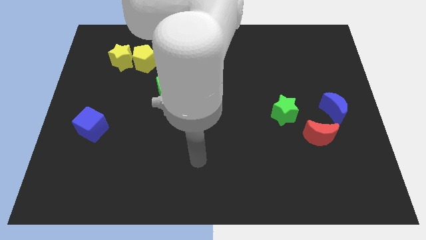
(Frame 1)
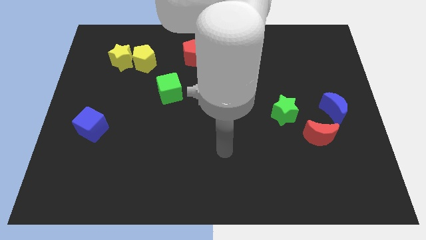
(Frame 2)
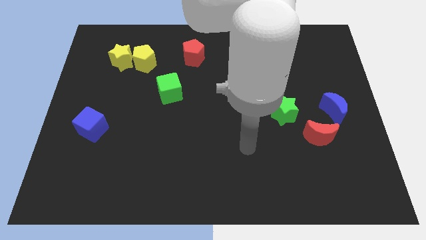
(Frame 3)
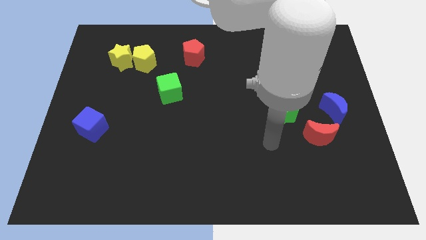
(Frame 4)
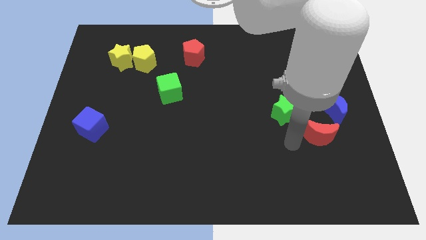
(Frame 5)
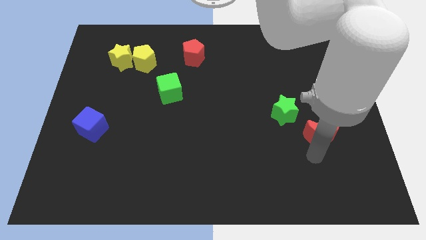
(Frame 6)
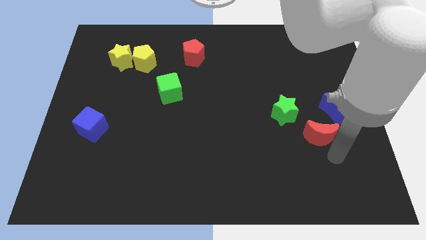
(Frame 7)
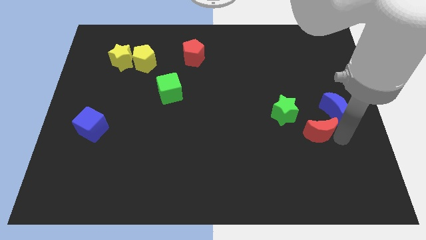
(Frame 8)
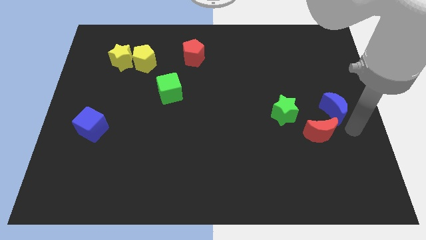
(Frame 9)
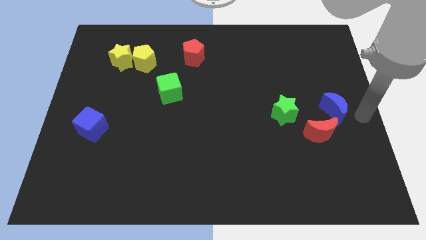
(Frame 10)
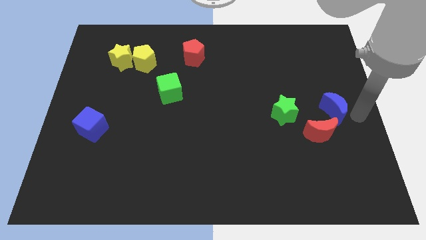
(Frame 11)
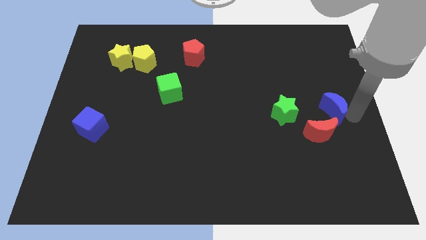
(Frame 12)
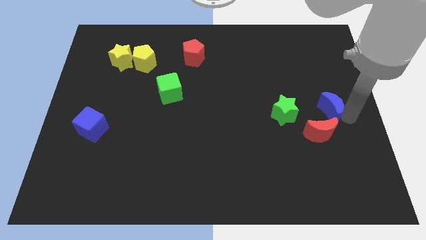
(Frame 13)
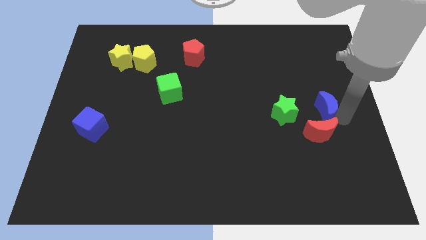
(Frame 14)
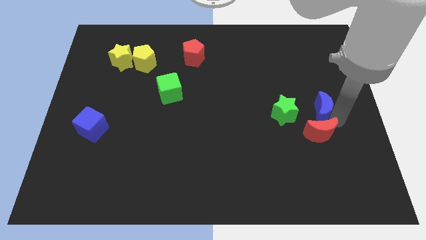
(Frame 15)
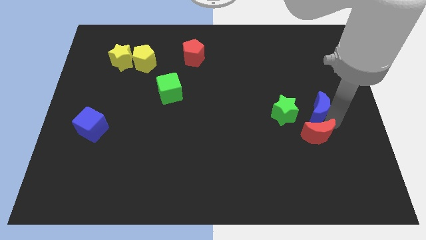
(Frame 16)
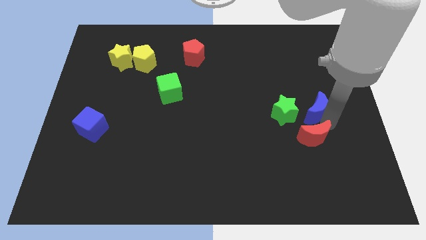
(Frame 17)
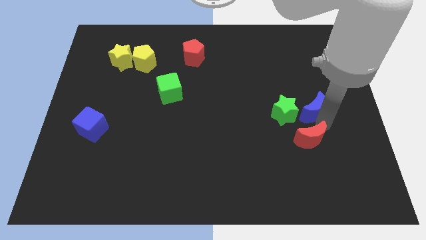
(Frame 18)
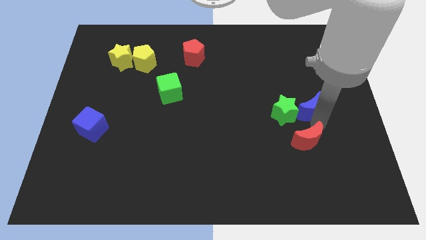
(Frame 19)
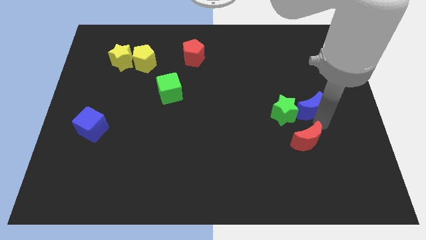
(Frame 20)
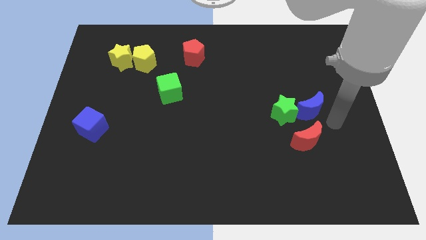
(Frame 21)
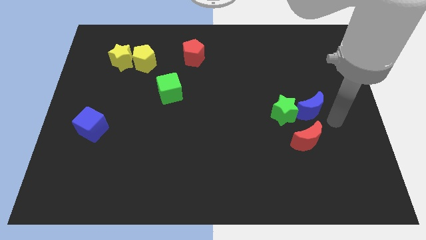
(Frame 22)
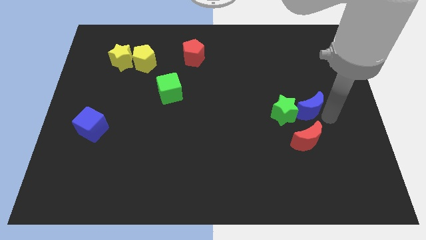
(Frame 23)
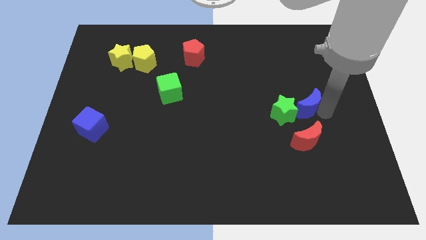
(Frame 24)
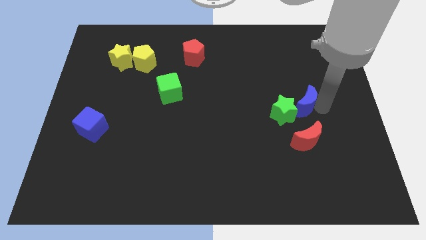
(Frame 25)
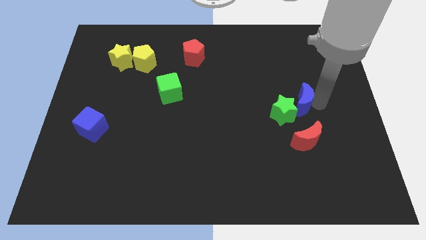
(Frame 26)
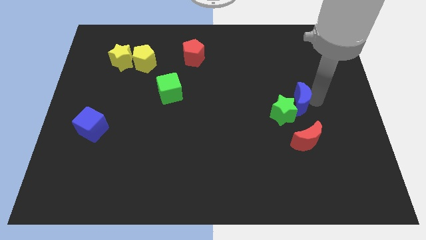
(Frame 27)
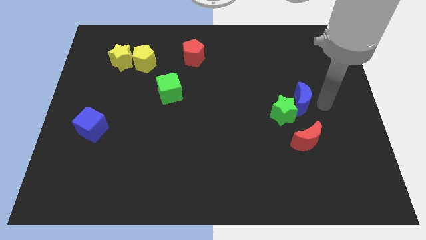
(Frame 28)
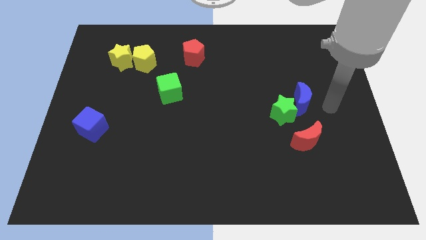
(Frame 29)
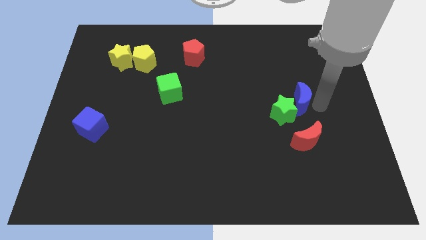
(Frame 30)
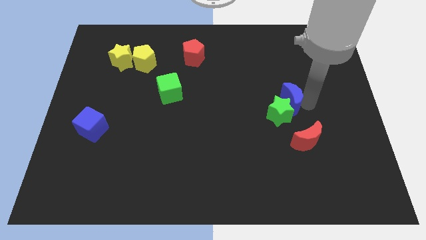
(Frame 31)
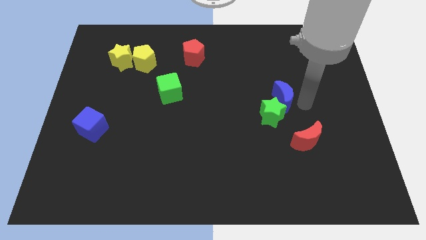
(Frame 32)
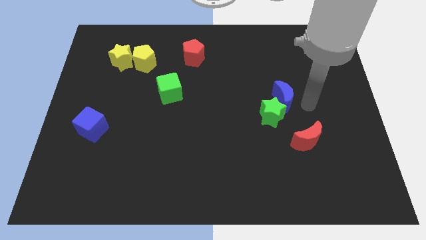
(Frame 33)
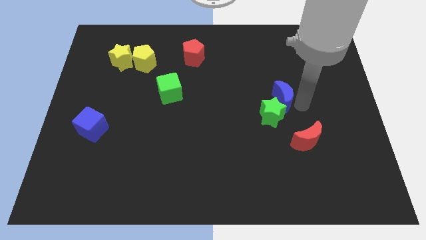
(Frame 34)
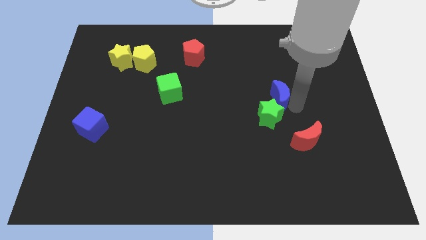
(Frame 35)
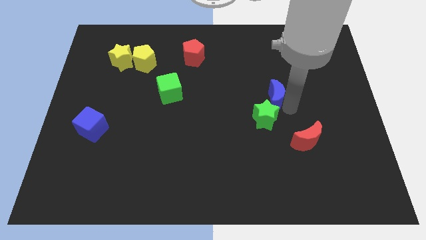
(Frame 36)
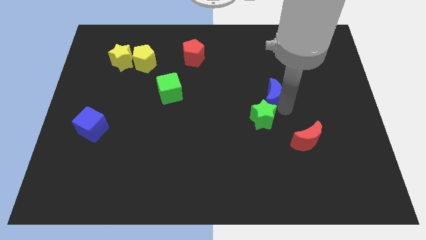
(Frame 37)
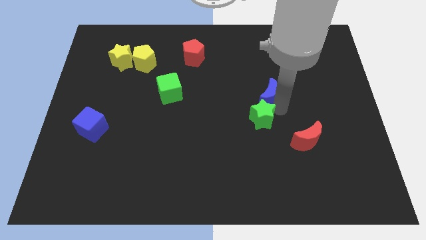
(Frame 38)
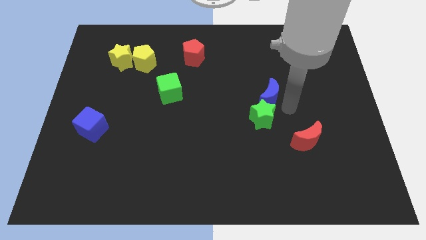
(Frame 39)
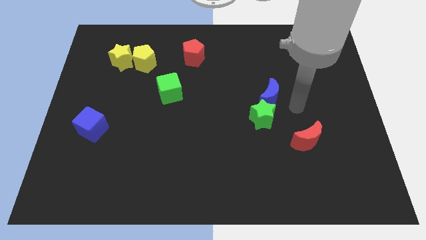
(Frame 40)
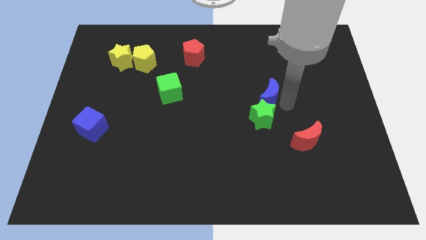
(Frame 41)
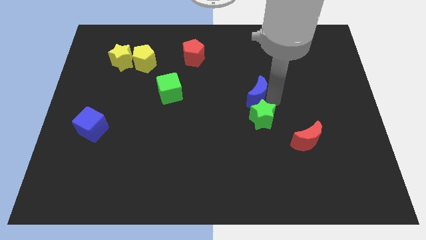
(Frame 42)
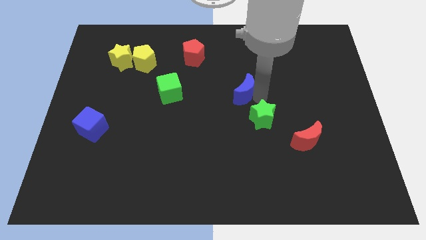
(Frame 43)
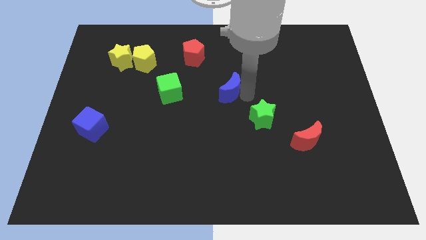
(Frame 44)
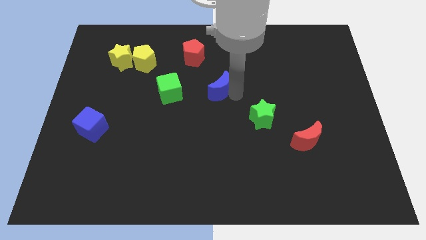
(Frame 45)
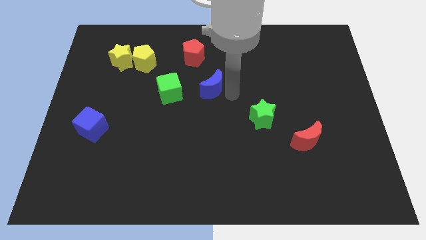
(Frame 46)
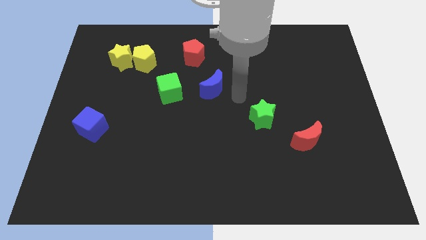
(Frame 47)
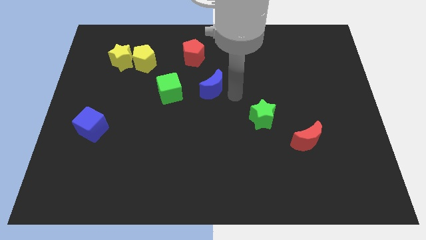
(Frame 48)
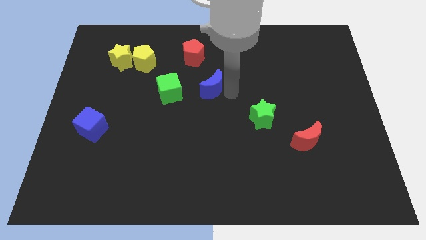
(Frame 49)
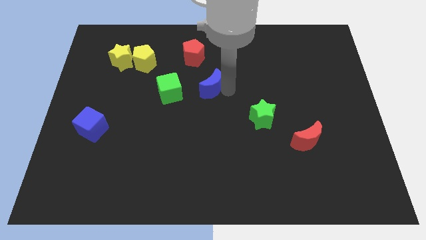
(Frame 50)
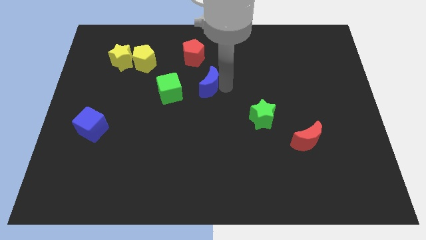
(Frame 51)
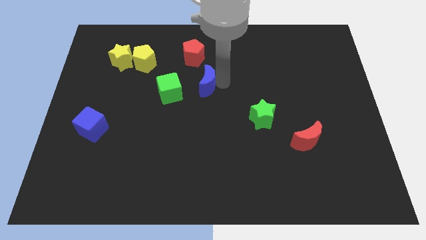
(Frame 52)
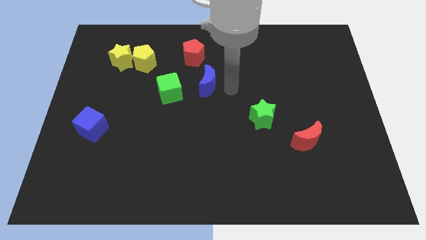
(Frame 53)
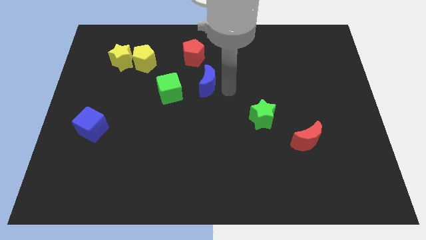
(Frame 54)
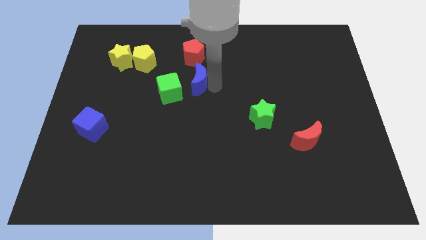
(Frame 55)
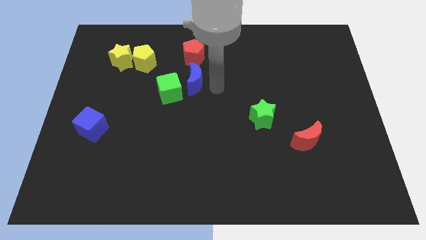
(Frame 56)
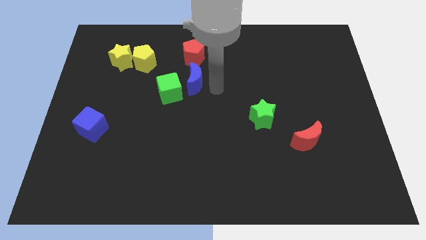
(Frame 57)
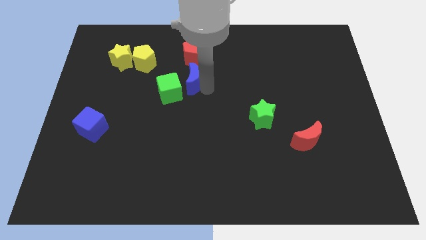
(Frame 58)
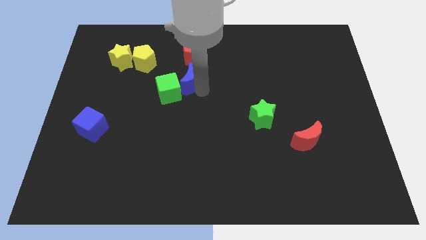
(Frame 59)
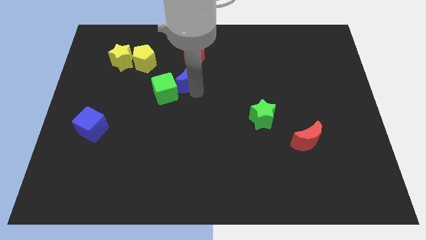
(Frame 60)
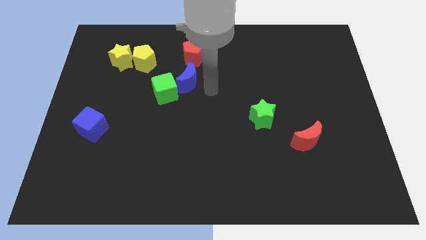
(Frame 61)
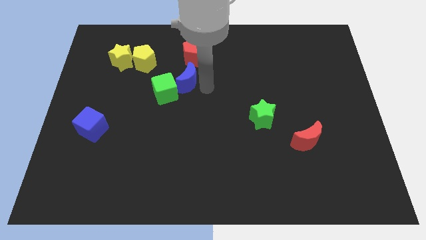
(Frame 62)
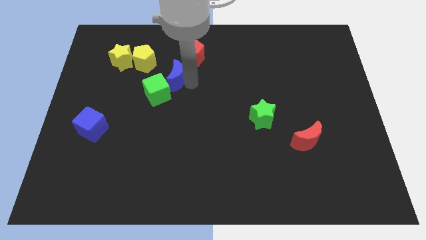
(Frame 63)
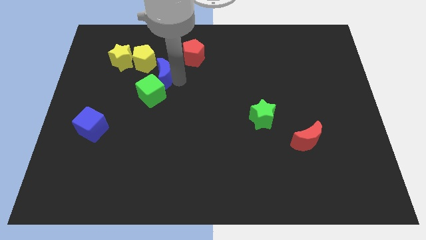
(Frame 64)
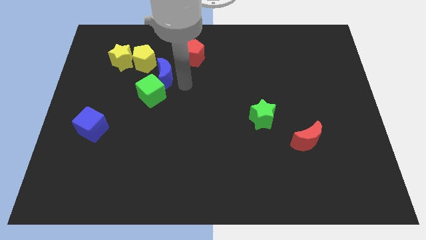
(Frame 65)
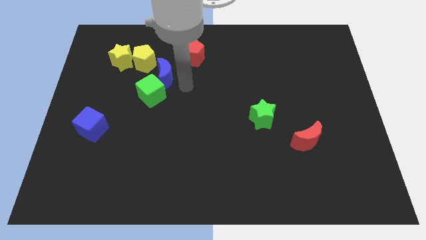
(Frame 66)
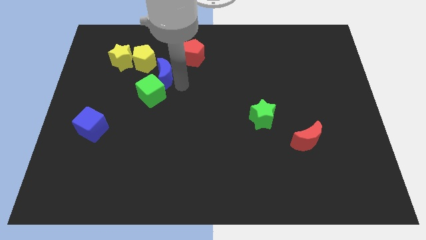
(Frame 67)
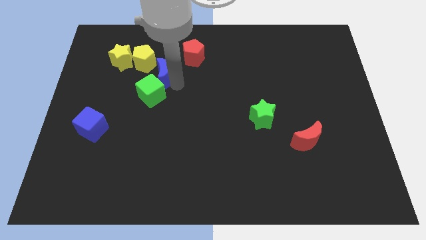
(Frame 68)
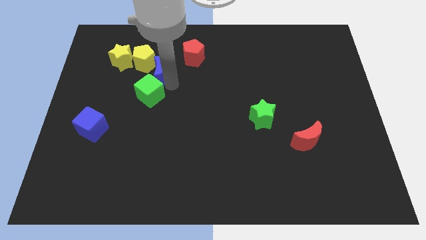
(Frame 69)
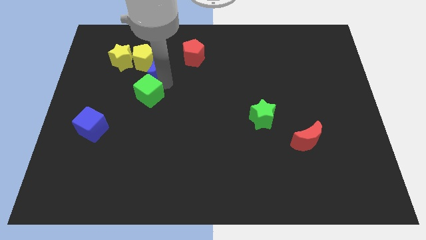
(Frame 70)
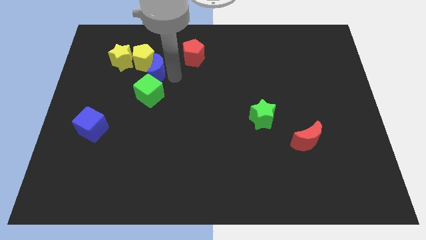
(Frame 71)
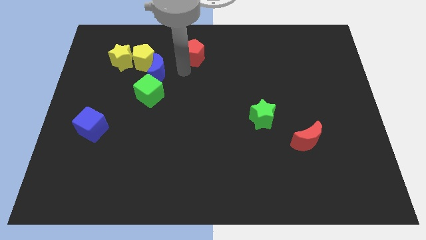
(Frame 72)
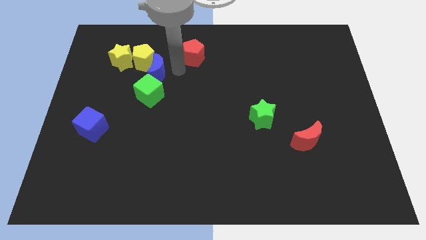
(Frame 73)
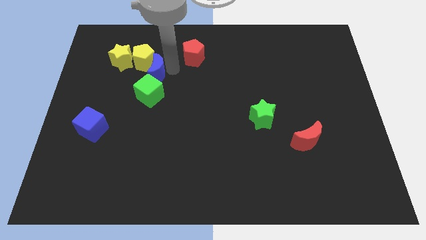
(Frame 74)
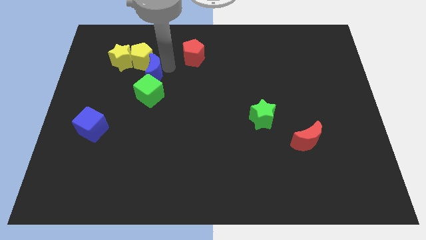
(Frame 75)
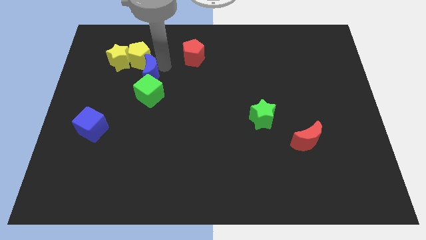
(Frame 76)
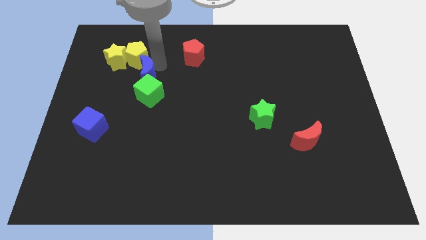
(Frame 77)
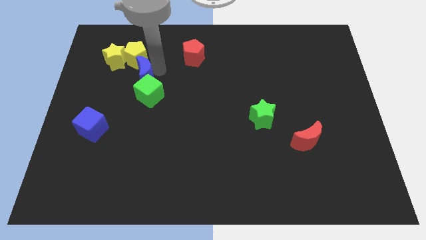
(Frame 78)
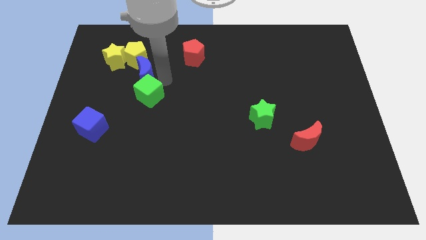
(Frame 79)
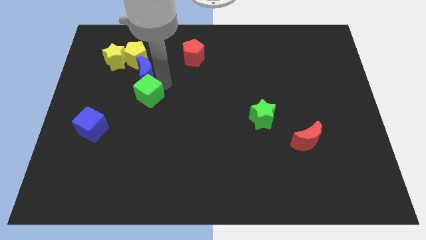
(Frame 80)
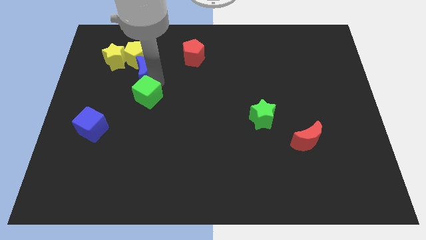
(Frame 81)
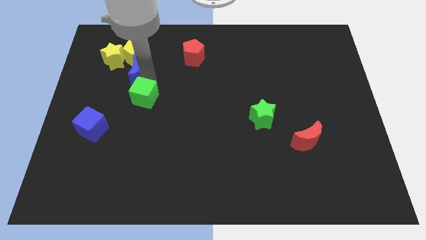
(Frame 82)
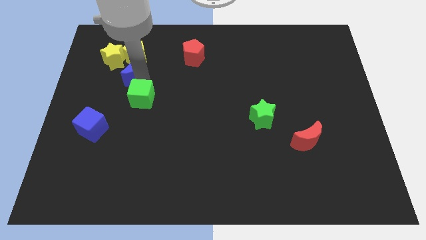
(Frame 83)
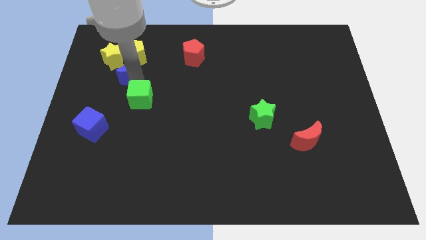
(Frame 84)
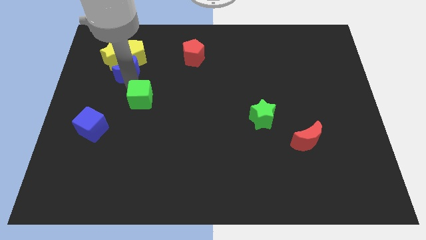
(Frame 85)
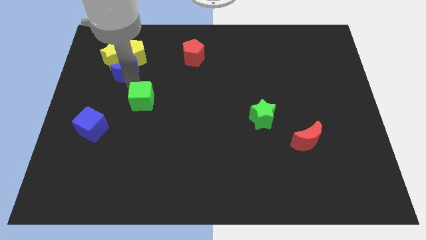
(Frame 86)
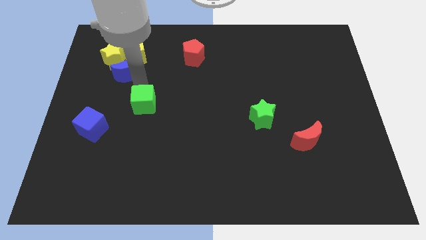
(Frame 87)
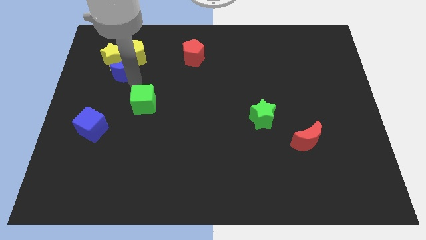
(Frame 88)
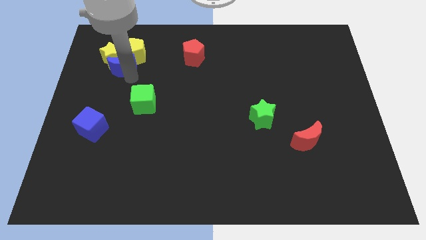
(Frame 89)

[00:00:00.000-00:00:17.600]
slide the blue moon next to the yellow star
